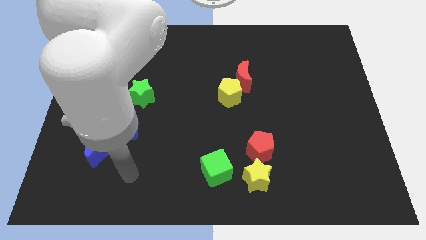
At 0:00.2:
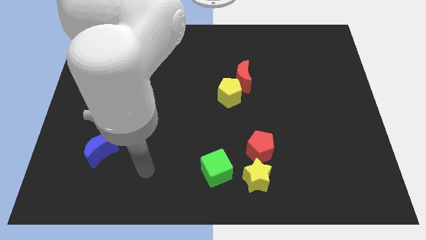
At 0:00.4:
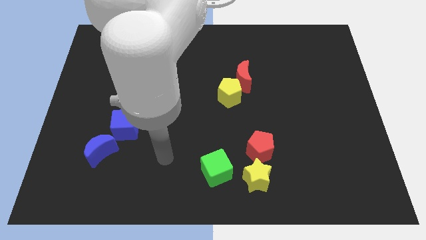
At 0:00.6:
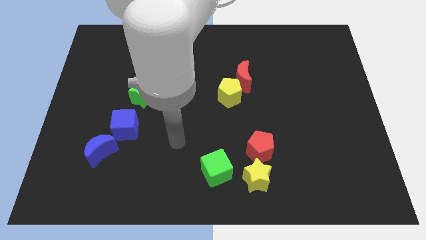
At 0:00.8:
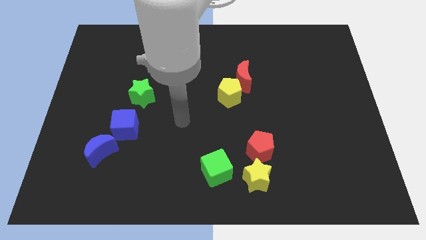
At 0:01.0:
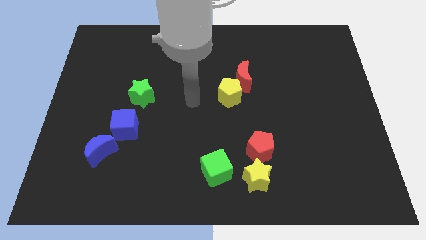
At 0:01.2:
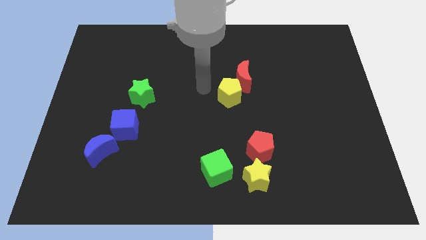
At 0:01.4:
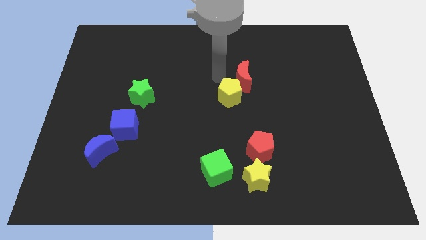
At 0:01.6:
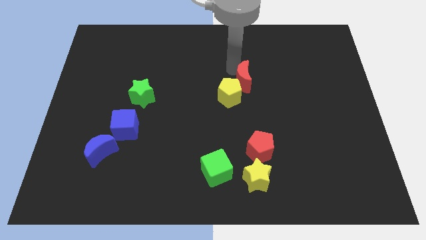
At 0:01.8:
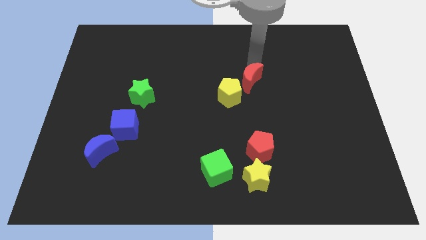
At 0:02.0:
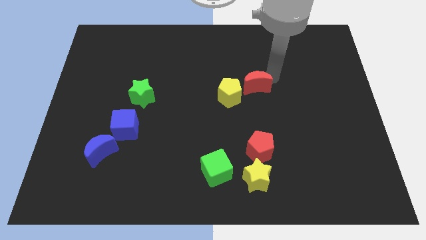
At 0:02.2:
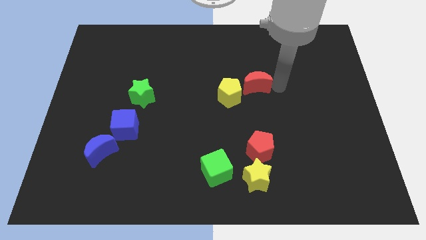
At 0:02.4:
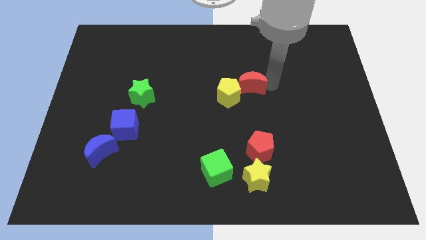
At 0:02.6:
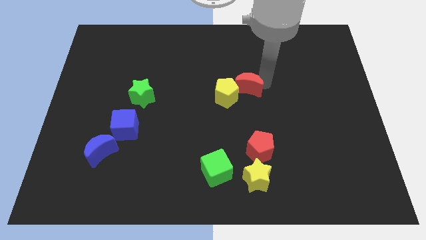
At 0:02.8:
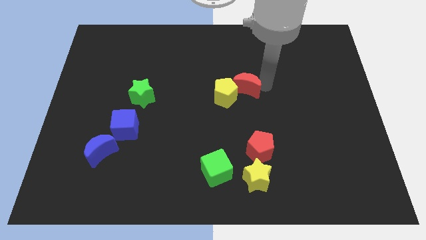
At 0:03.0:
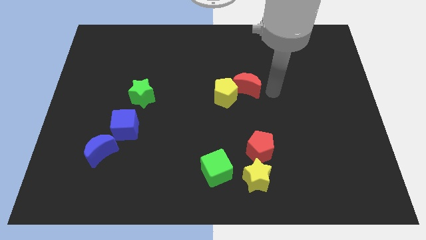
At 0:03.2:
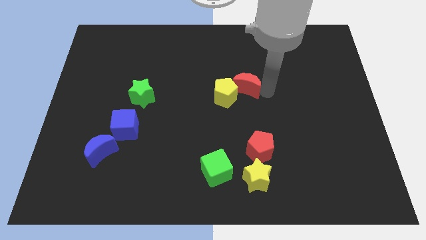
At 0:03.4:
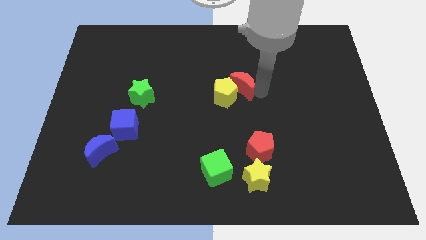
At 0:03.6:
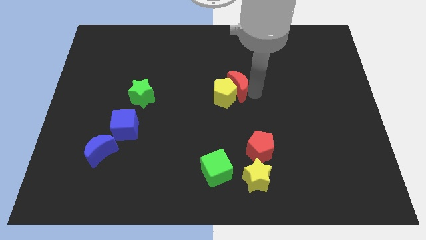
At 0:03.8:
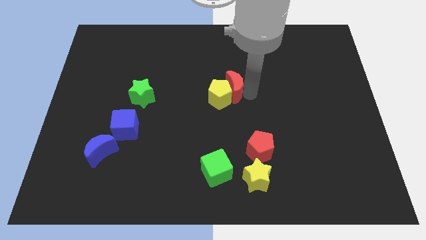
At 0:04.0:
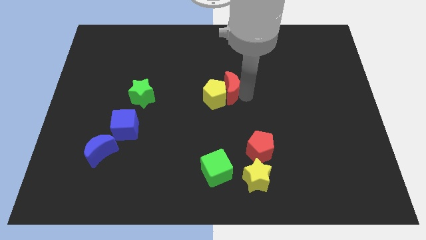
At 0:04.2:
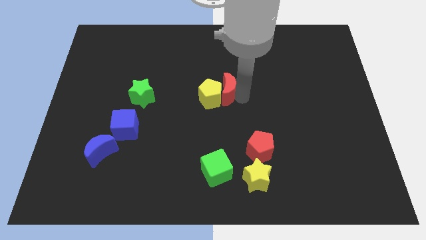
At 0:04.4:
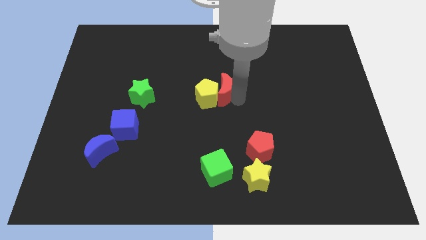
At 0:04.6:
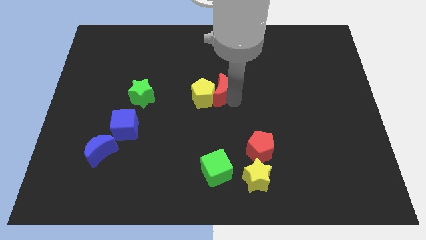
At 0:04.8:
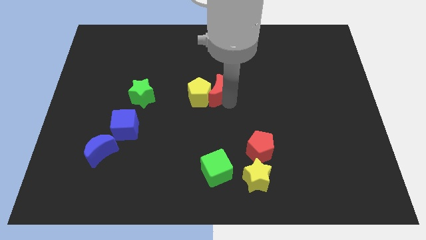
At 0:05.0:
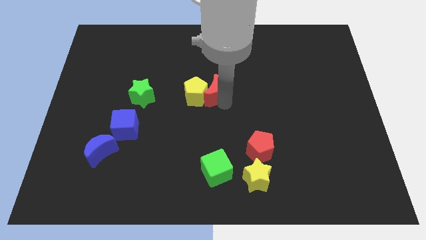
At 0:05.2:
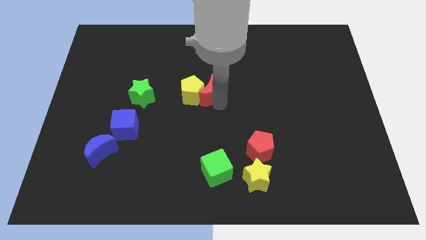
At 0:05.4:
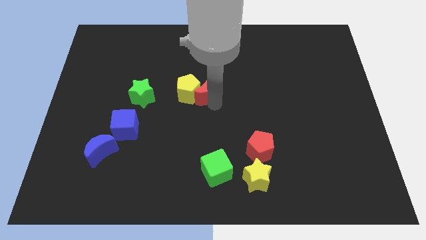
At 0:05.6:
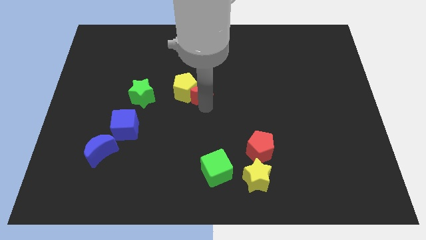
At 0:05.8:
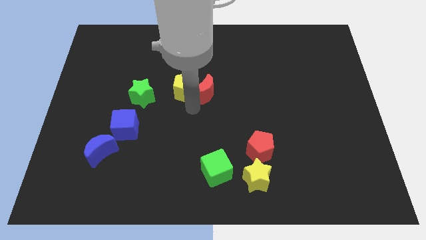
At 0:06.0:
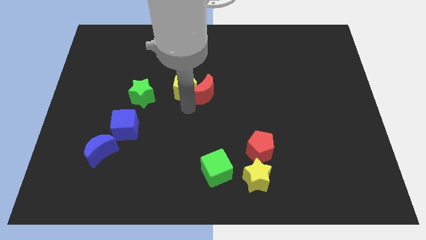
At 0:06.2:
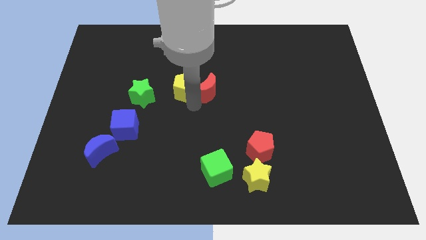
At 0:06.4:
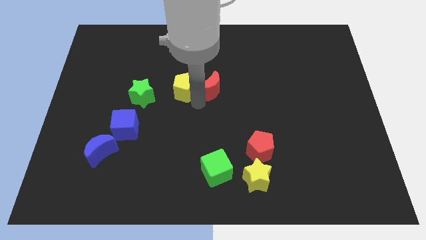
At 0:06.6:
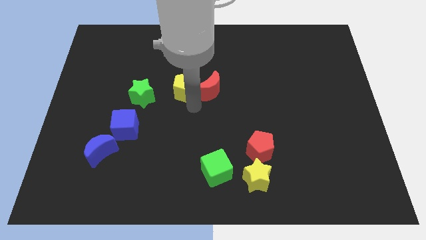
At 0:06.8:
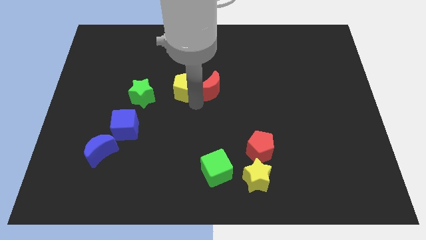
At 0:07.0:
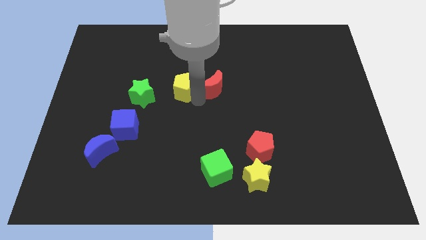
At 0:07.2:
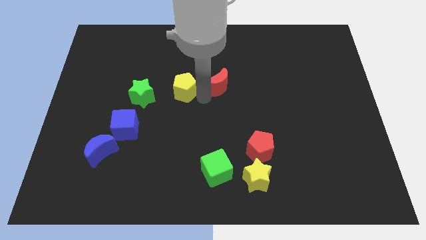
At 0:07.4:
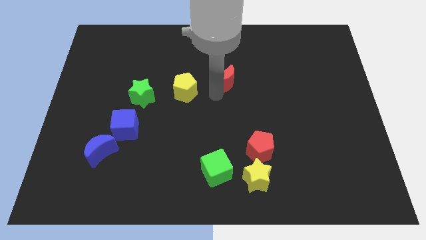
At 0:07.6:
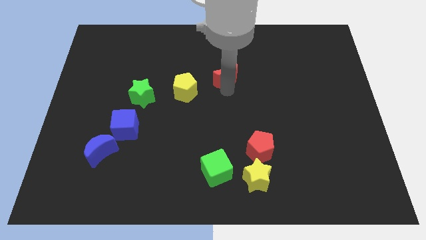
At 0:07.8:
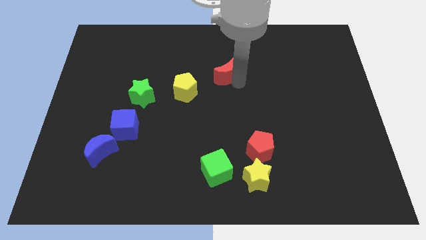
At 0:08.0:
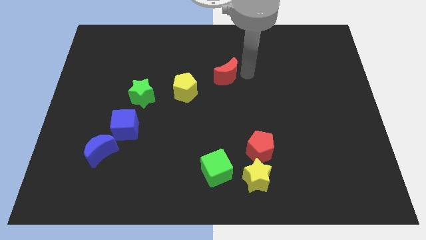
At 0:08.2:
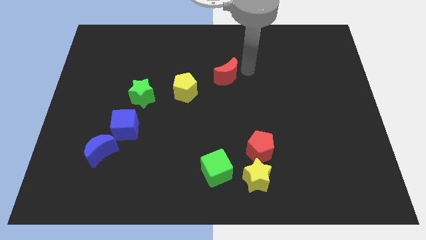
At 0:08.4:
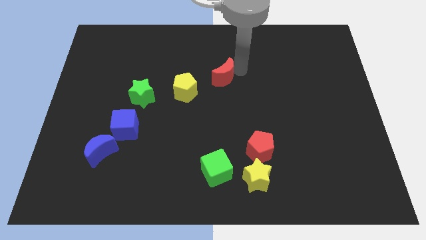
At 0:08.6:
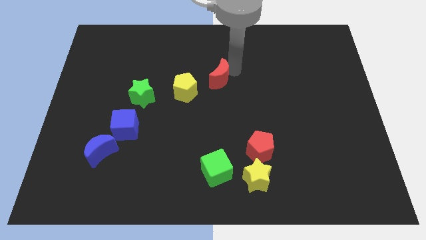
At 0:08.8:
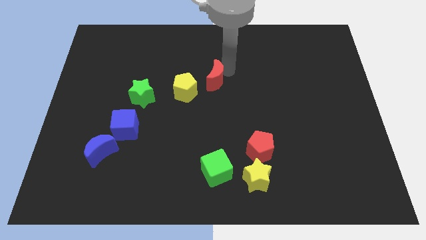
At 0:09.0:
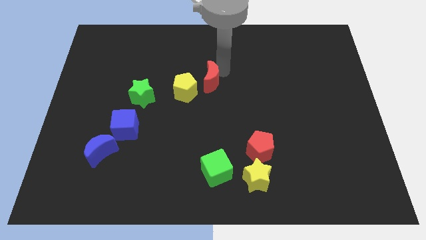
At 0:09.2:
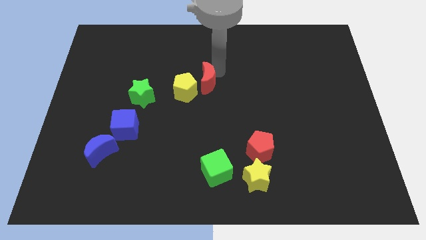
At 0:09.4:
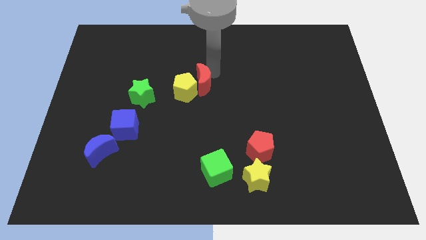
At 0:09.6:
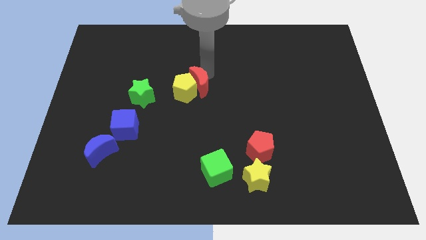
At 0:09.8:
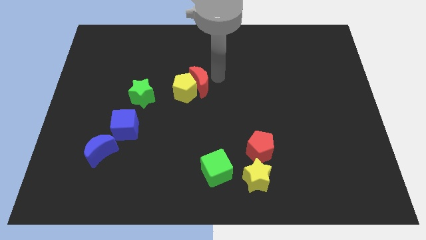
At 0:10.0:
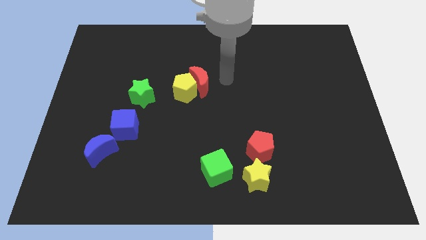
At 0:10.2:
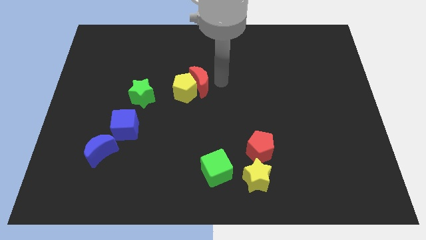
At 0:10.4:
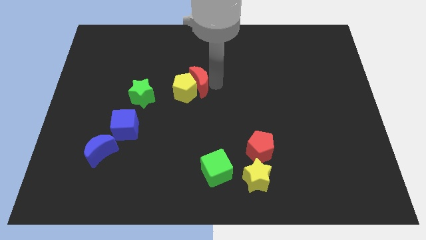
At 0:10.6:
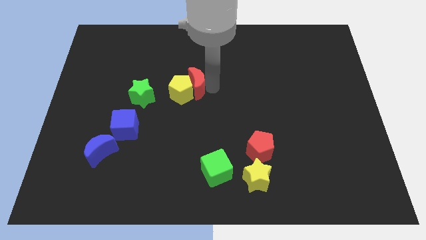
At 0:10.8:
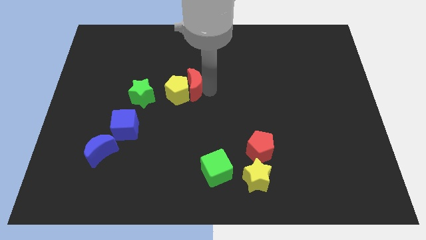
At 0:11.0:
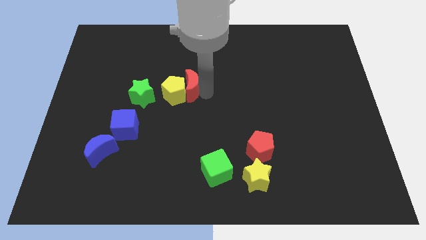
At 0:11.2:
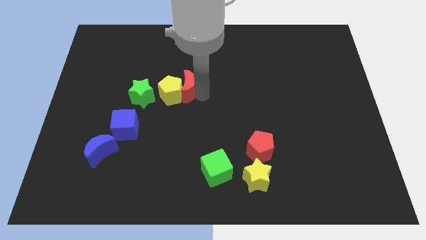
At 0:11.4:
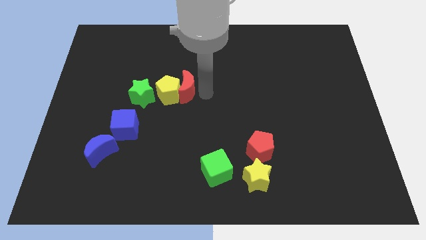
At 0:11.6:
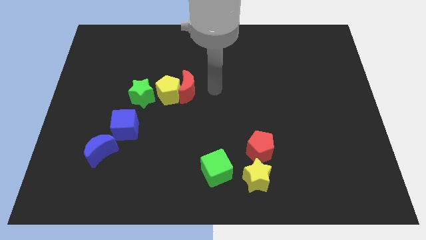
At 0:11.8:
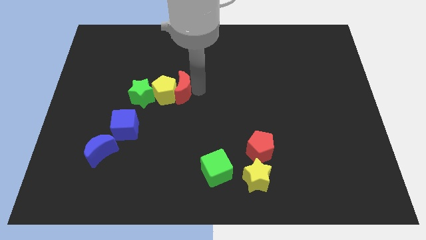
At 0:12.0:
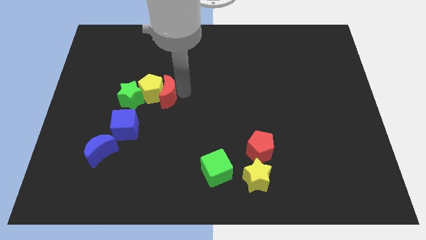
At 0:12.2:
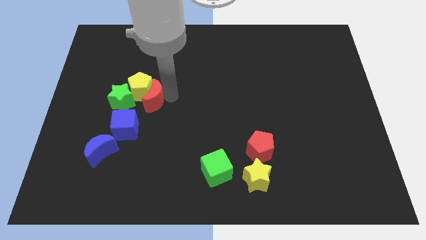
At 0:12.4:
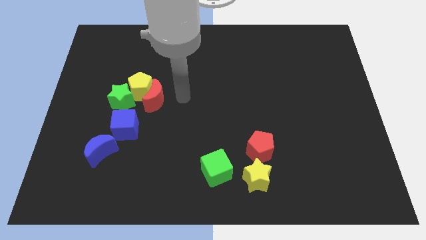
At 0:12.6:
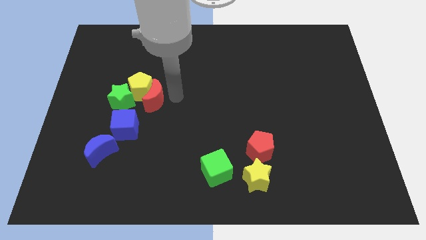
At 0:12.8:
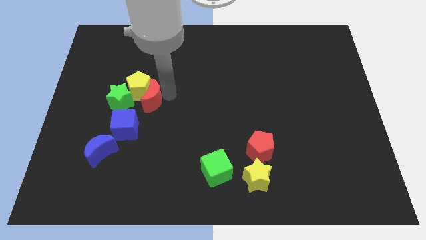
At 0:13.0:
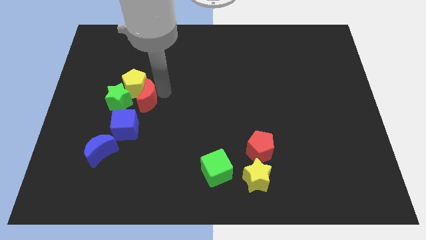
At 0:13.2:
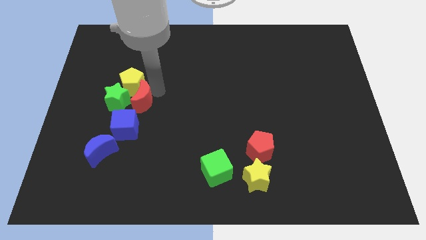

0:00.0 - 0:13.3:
push the red moon close to the green star

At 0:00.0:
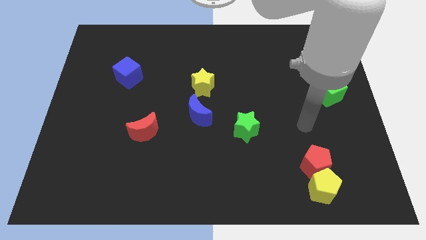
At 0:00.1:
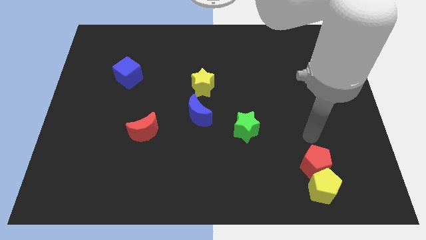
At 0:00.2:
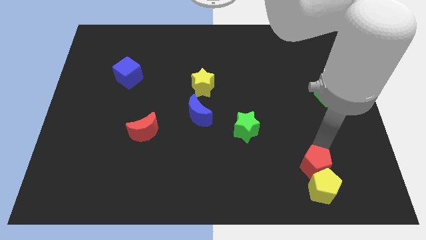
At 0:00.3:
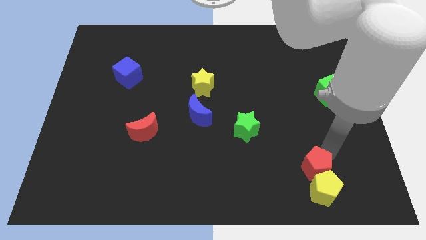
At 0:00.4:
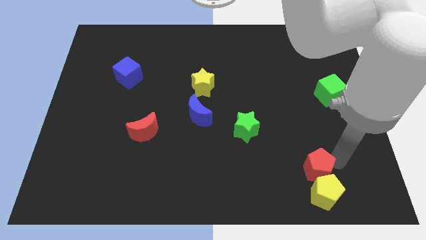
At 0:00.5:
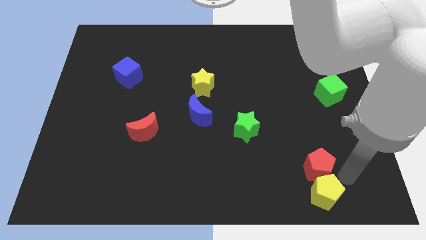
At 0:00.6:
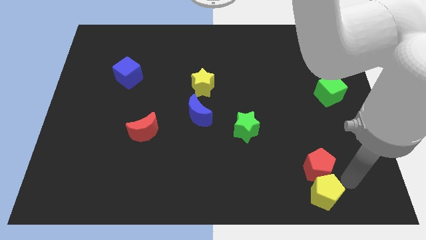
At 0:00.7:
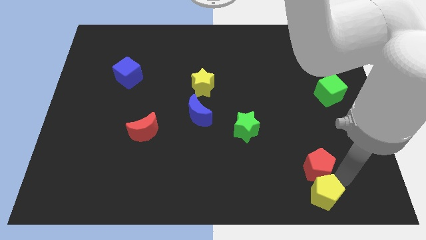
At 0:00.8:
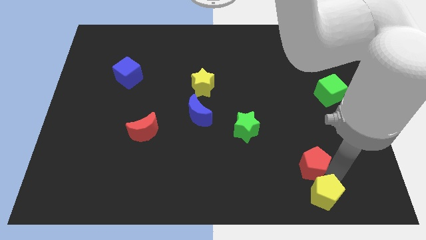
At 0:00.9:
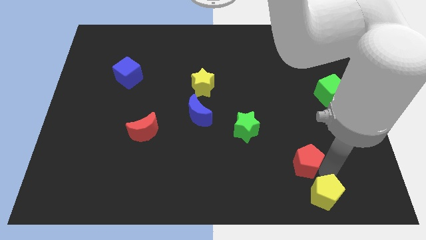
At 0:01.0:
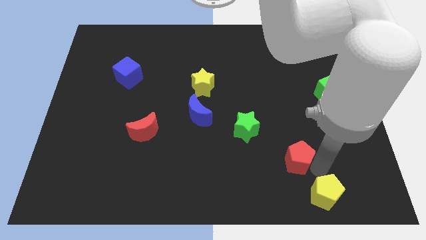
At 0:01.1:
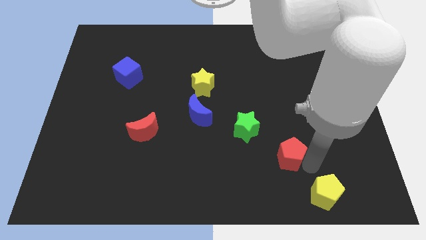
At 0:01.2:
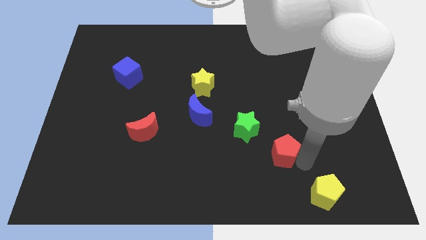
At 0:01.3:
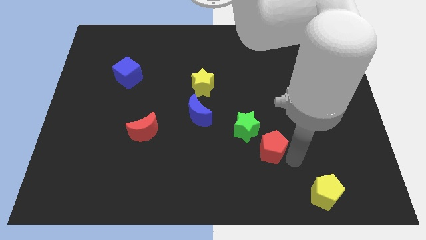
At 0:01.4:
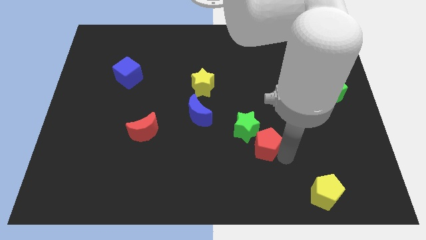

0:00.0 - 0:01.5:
slide the red pentagon close to the green star
